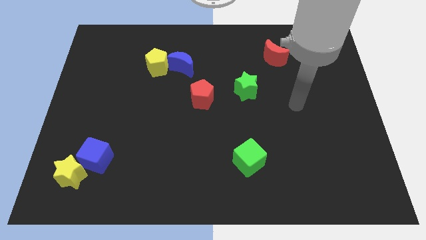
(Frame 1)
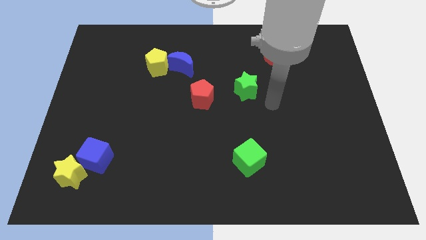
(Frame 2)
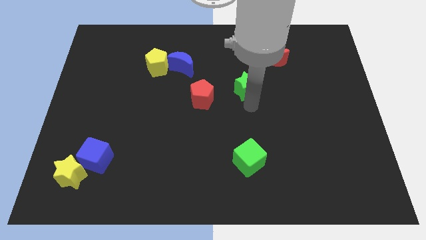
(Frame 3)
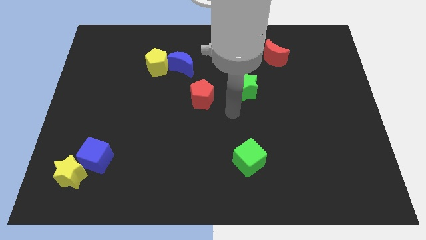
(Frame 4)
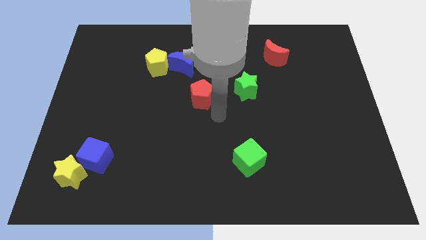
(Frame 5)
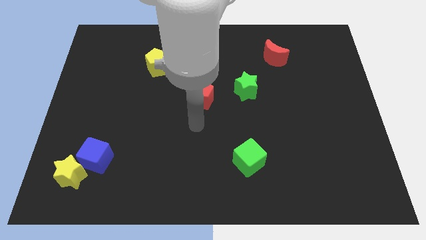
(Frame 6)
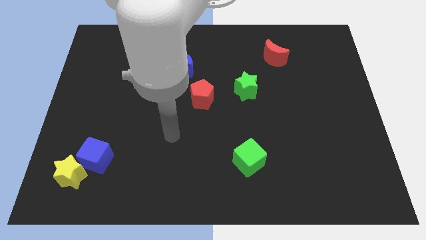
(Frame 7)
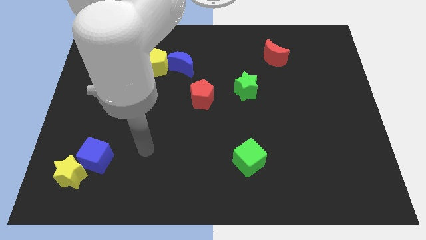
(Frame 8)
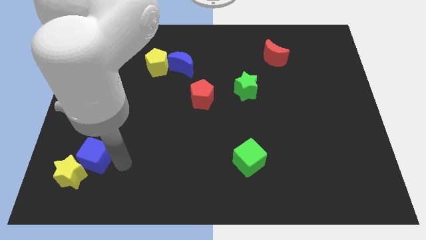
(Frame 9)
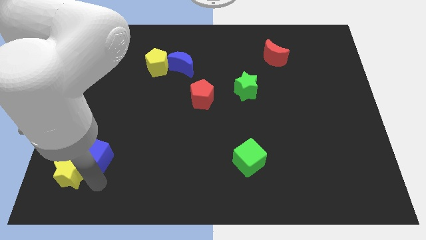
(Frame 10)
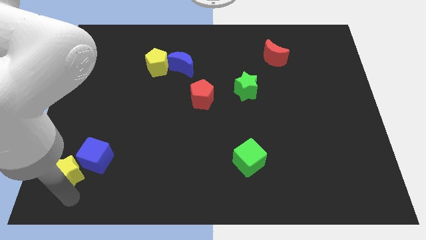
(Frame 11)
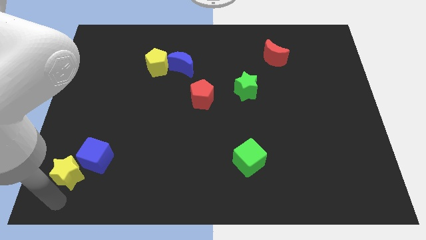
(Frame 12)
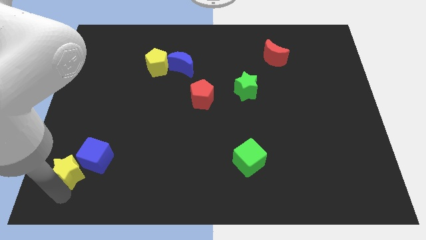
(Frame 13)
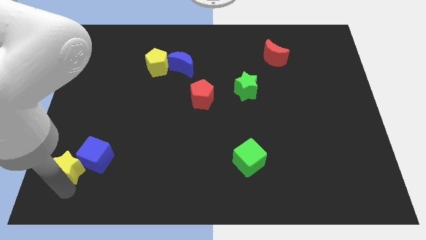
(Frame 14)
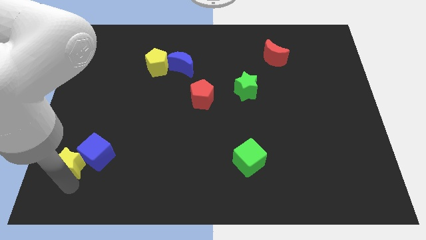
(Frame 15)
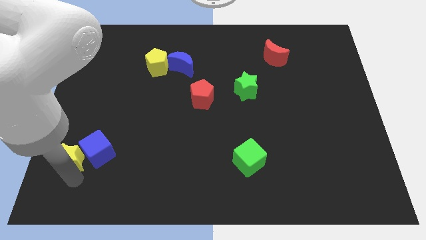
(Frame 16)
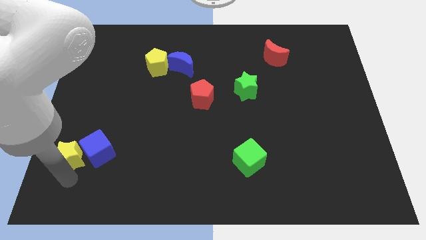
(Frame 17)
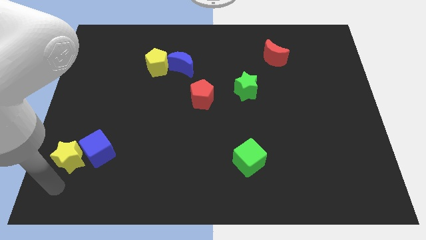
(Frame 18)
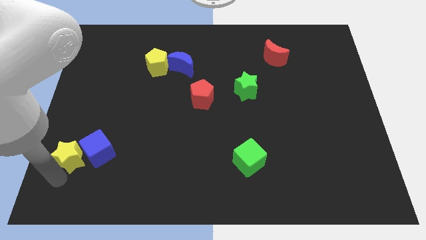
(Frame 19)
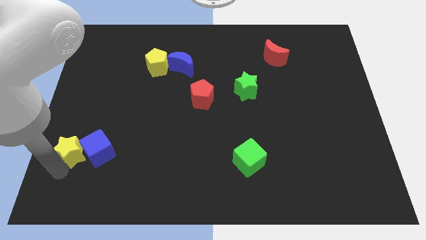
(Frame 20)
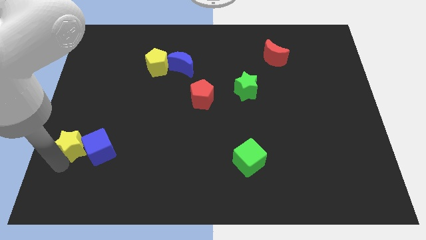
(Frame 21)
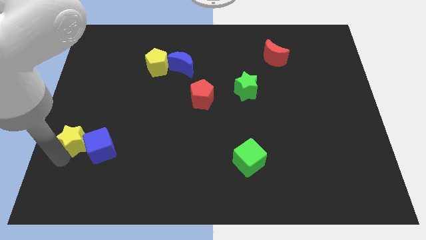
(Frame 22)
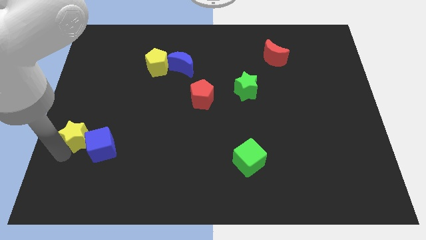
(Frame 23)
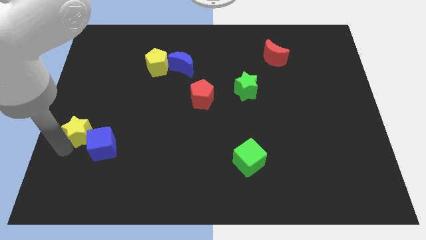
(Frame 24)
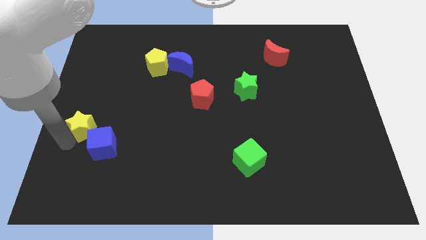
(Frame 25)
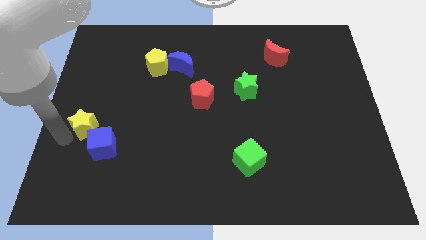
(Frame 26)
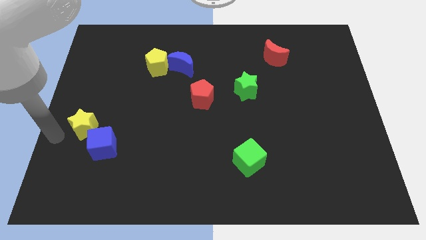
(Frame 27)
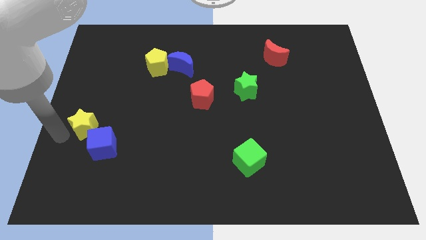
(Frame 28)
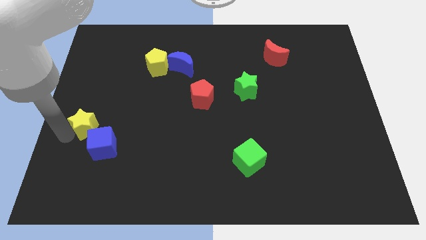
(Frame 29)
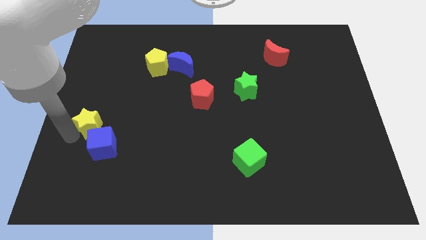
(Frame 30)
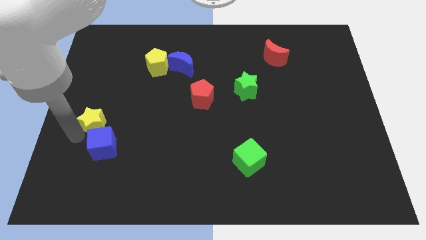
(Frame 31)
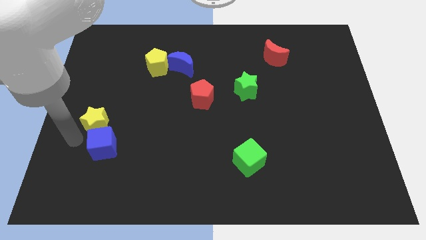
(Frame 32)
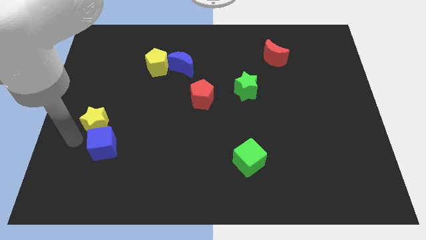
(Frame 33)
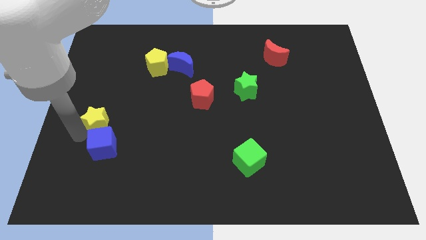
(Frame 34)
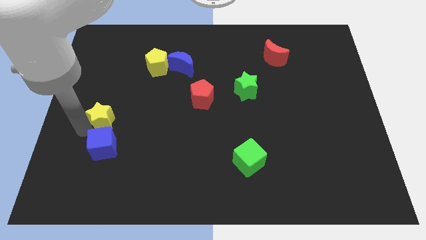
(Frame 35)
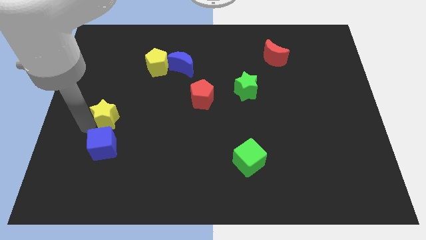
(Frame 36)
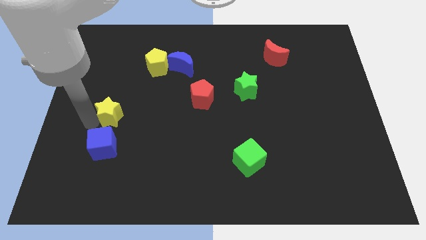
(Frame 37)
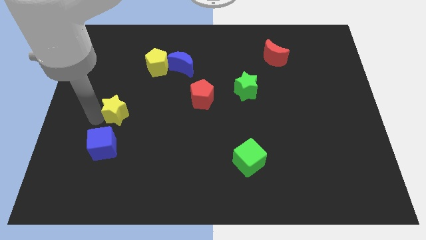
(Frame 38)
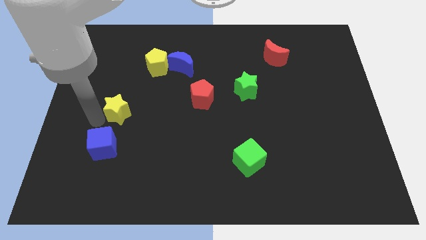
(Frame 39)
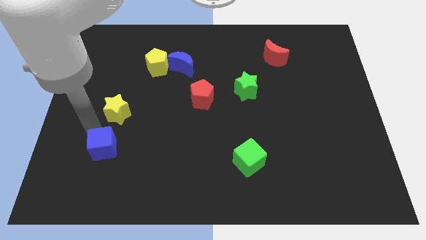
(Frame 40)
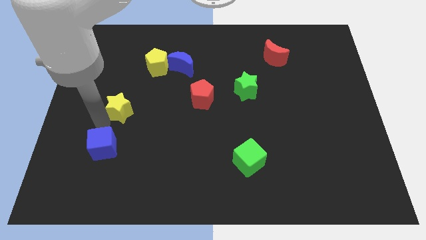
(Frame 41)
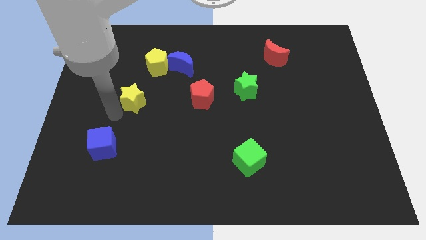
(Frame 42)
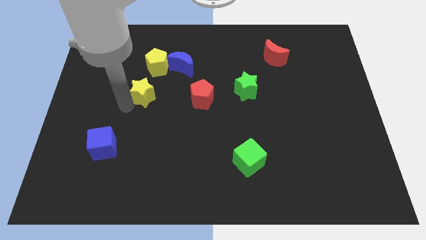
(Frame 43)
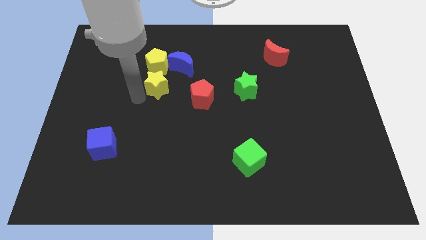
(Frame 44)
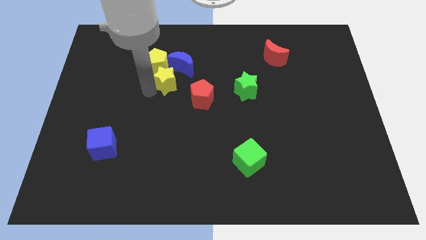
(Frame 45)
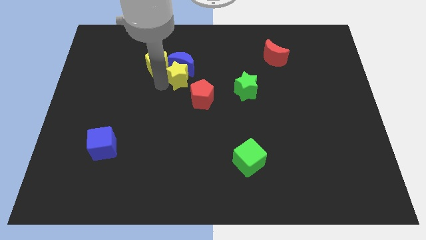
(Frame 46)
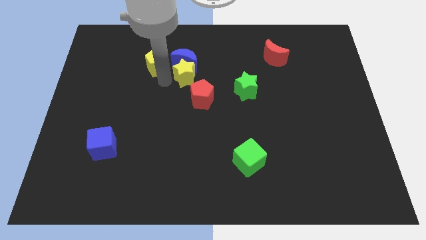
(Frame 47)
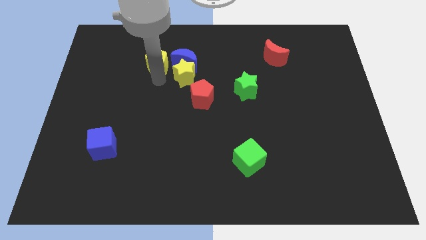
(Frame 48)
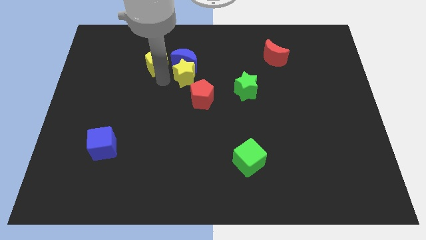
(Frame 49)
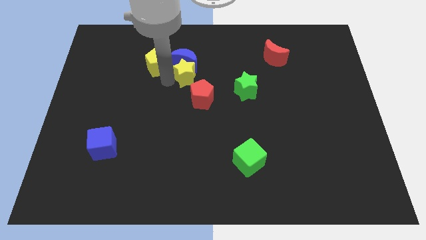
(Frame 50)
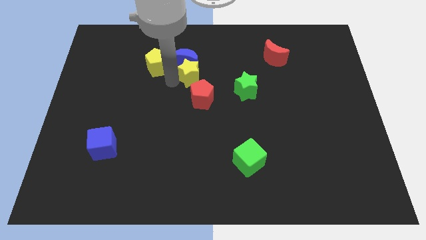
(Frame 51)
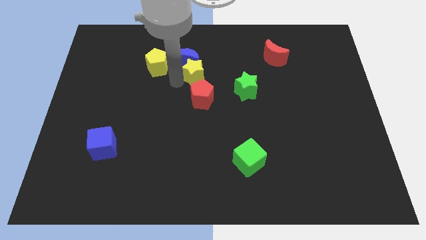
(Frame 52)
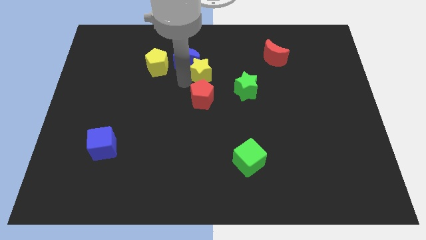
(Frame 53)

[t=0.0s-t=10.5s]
put the yellow star to the right of the blue moon

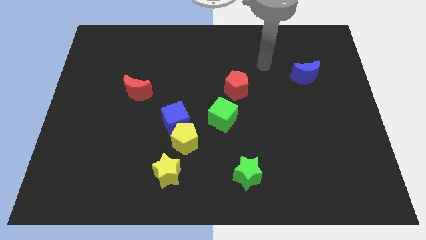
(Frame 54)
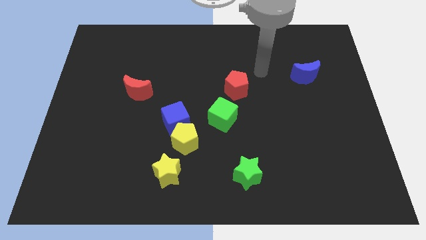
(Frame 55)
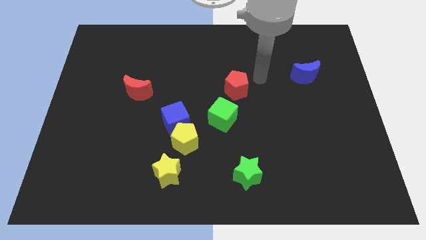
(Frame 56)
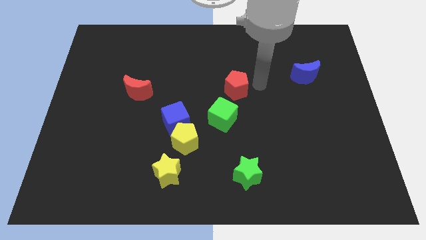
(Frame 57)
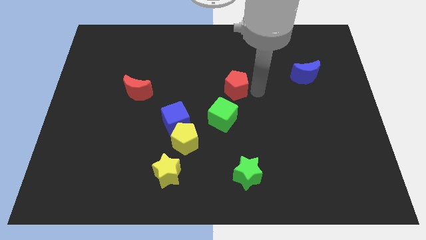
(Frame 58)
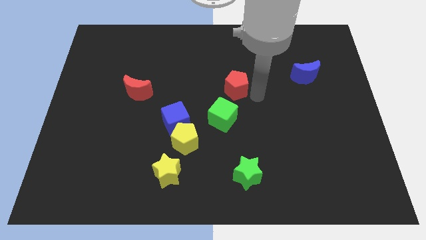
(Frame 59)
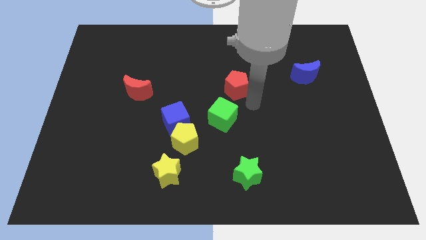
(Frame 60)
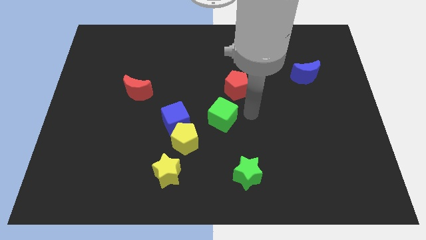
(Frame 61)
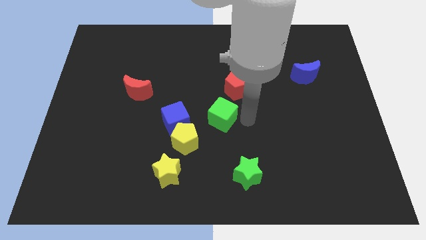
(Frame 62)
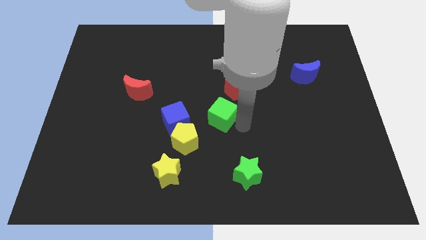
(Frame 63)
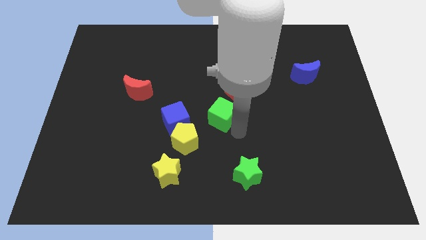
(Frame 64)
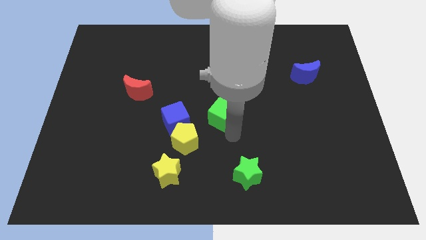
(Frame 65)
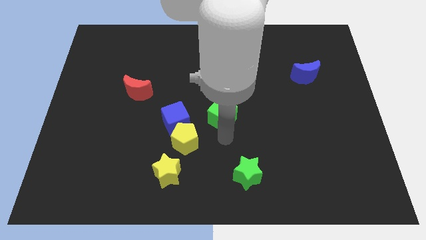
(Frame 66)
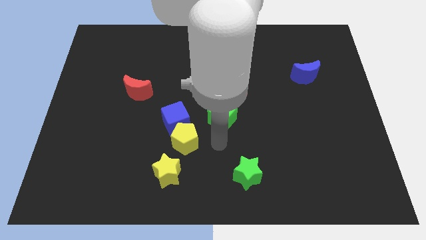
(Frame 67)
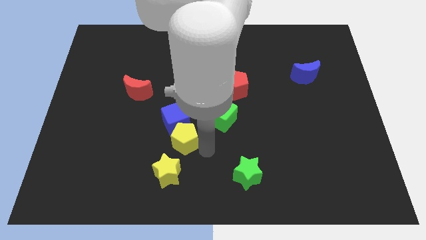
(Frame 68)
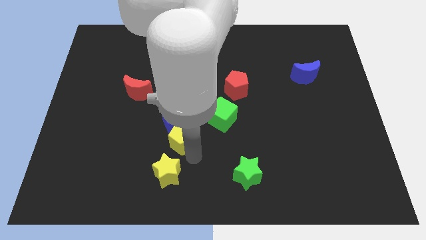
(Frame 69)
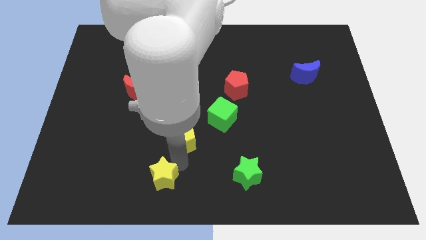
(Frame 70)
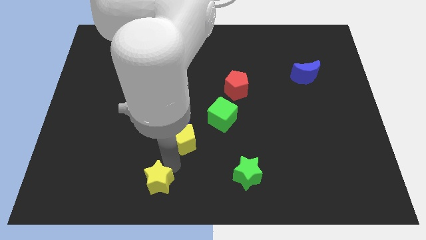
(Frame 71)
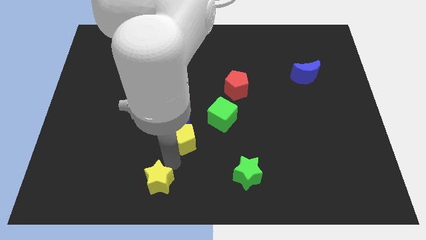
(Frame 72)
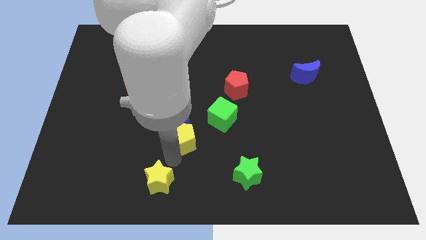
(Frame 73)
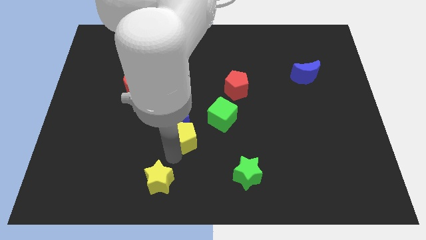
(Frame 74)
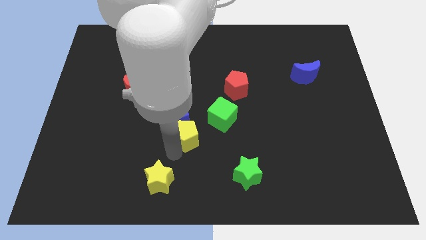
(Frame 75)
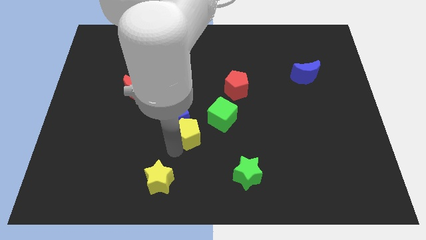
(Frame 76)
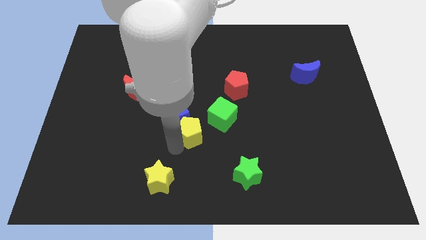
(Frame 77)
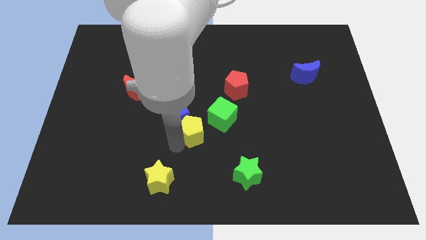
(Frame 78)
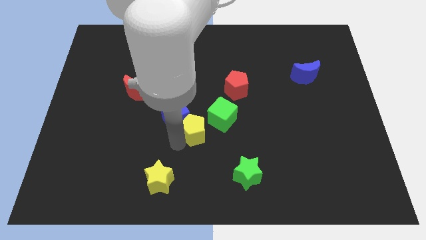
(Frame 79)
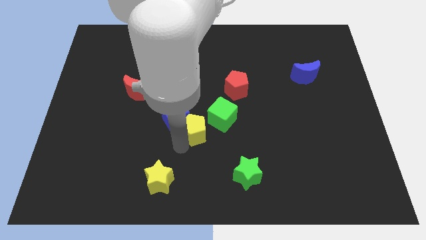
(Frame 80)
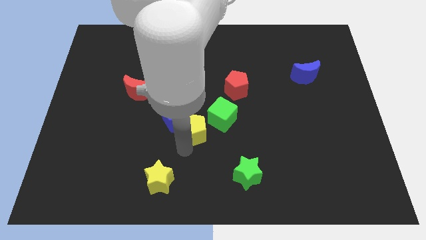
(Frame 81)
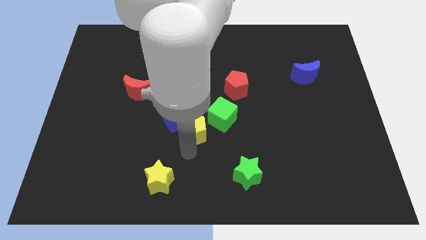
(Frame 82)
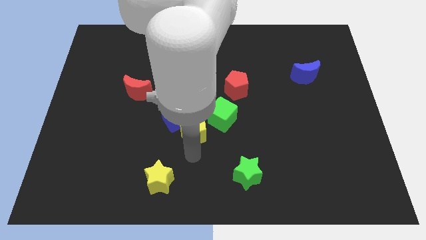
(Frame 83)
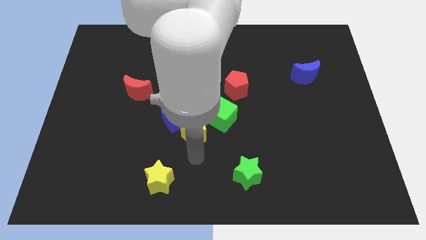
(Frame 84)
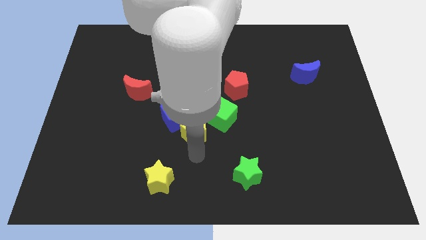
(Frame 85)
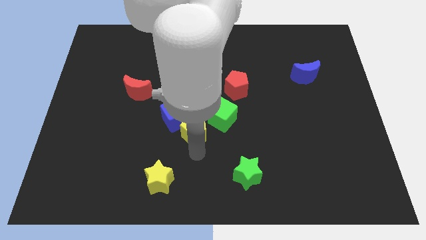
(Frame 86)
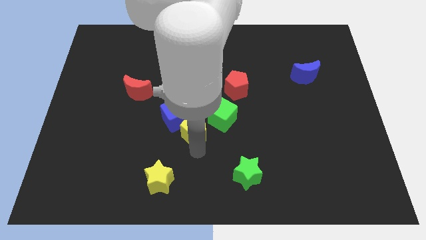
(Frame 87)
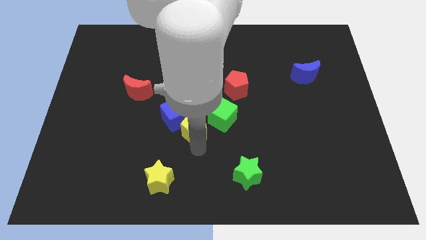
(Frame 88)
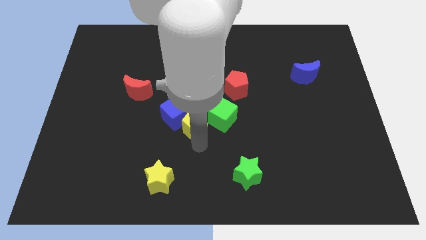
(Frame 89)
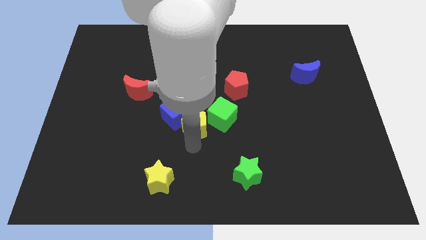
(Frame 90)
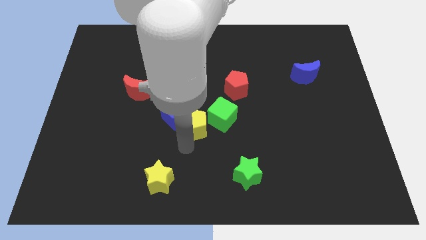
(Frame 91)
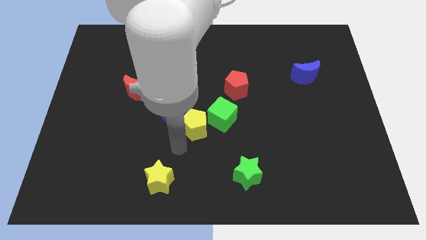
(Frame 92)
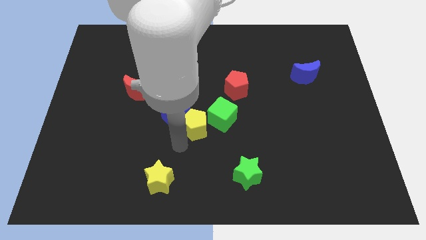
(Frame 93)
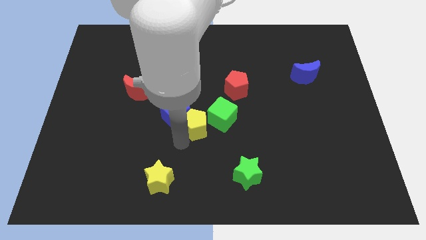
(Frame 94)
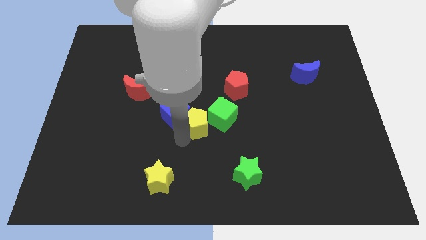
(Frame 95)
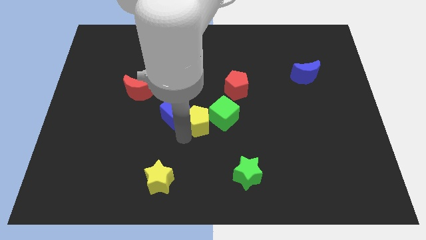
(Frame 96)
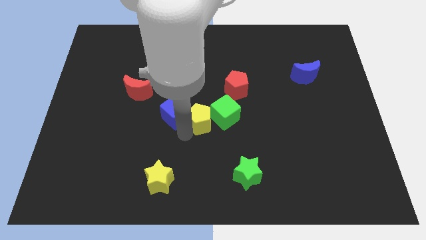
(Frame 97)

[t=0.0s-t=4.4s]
push the yellow pentagon to the bottom left side of the red pentagon
